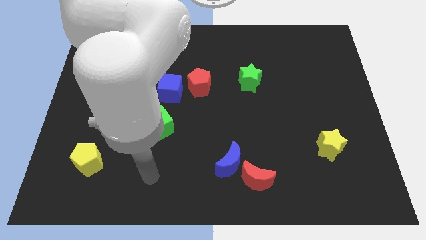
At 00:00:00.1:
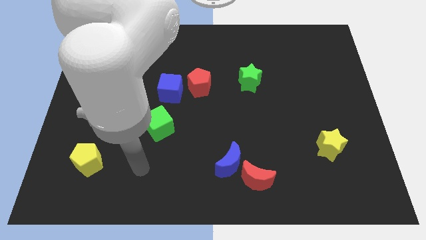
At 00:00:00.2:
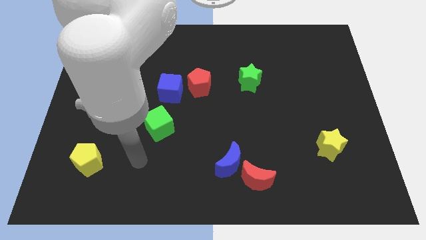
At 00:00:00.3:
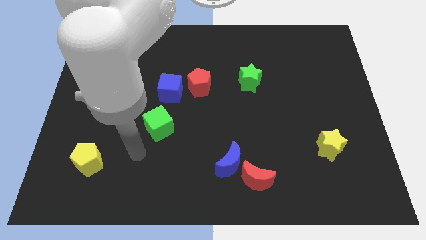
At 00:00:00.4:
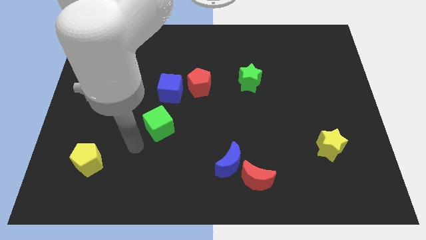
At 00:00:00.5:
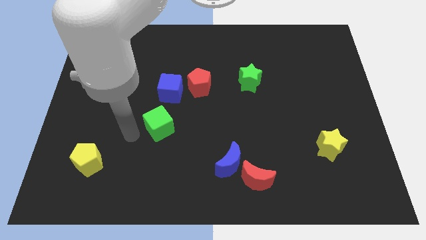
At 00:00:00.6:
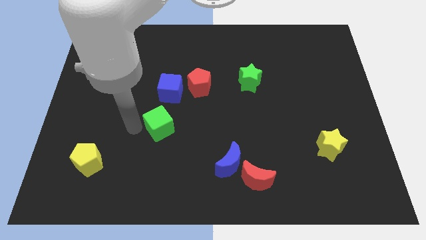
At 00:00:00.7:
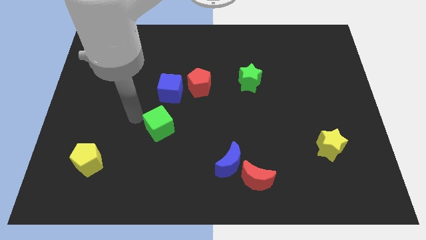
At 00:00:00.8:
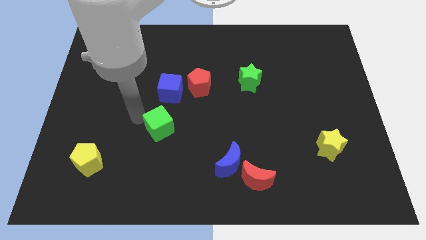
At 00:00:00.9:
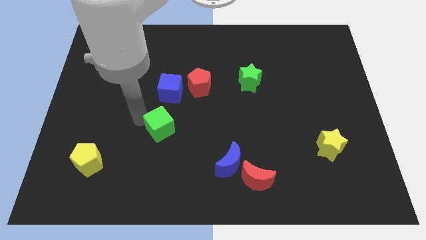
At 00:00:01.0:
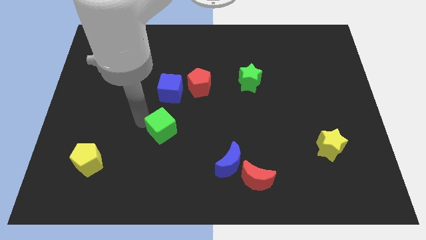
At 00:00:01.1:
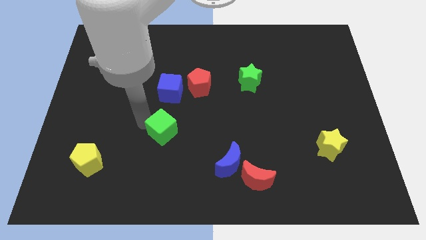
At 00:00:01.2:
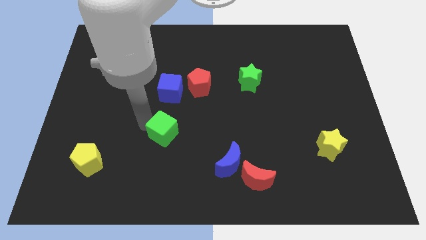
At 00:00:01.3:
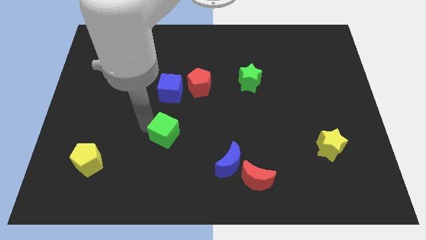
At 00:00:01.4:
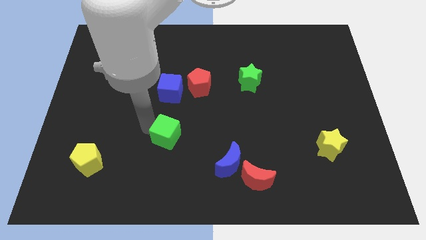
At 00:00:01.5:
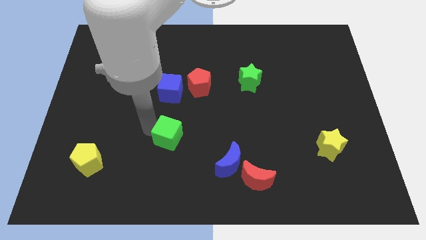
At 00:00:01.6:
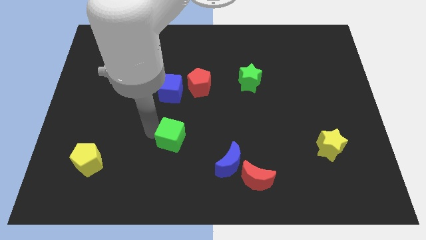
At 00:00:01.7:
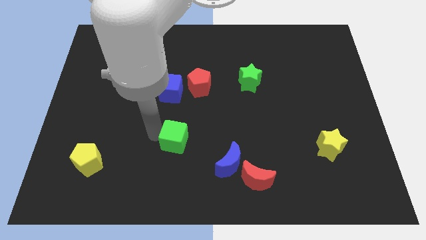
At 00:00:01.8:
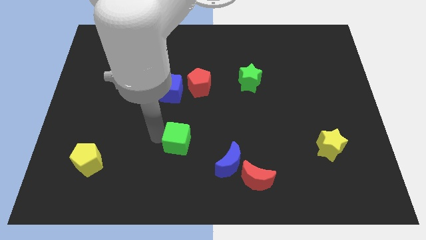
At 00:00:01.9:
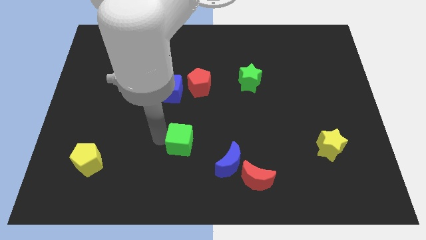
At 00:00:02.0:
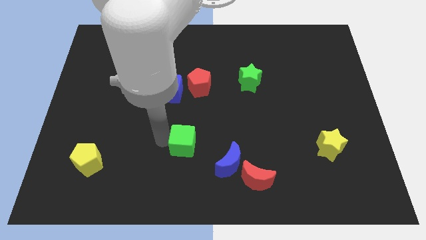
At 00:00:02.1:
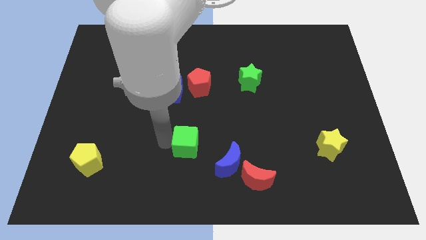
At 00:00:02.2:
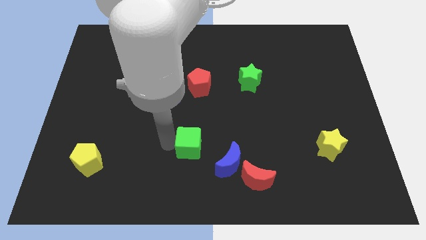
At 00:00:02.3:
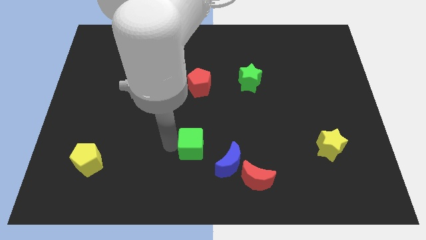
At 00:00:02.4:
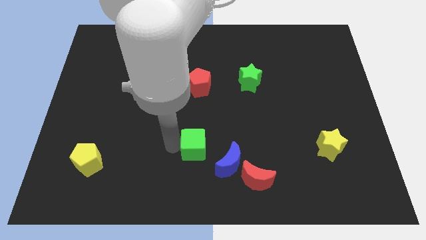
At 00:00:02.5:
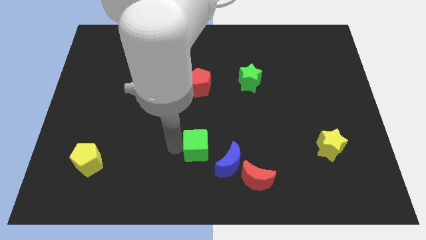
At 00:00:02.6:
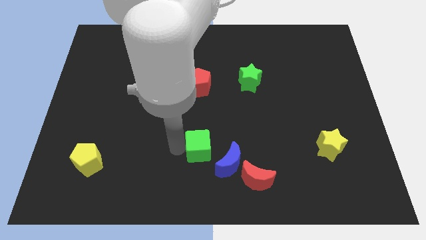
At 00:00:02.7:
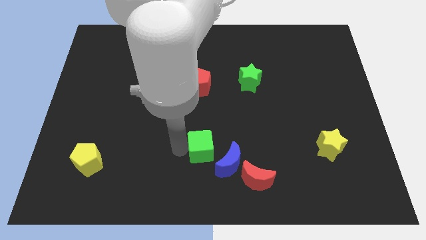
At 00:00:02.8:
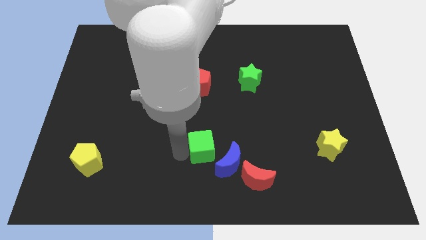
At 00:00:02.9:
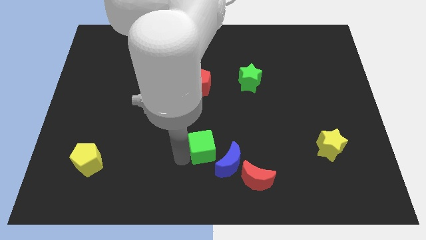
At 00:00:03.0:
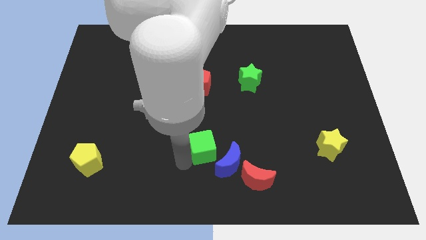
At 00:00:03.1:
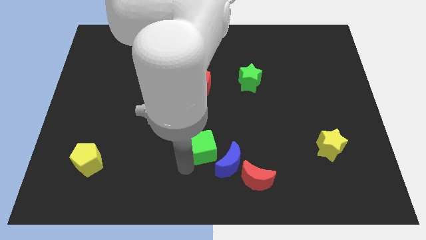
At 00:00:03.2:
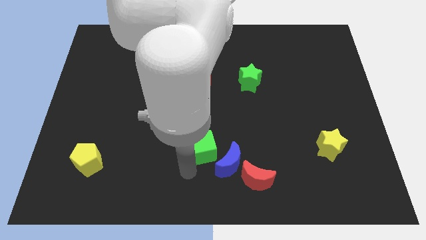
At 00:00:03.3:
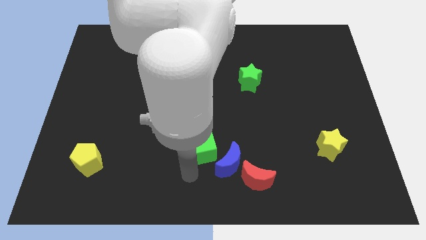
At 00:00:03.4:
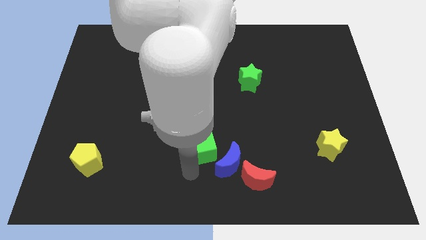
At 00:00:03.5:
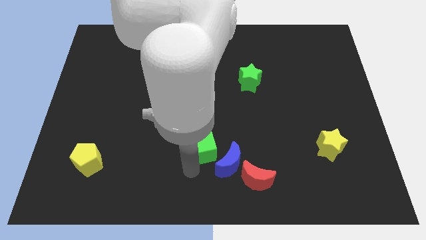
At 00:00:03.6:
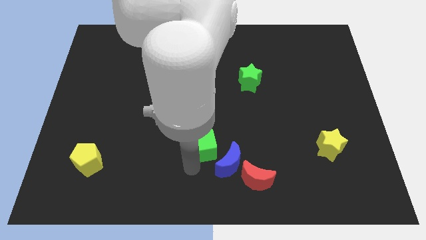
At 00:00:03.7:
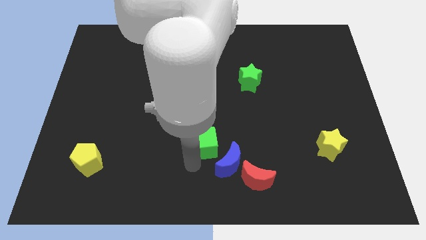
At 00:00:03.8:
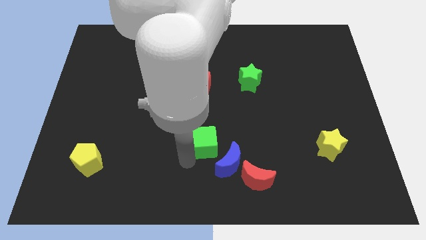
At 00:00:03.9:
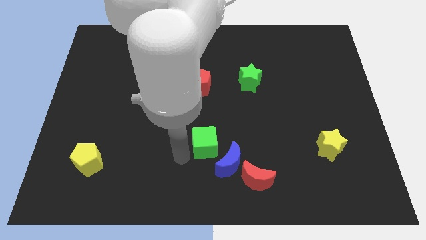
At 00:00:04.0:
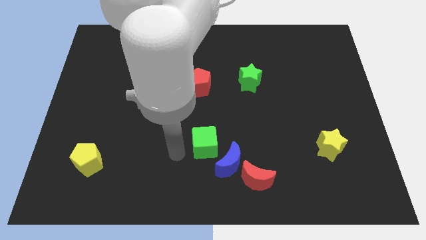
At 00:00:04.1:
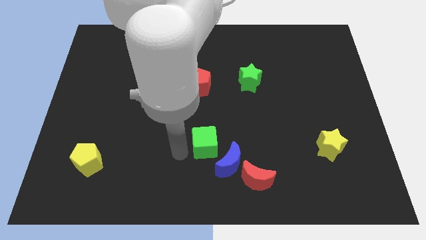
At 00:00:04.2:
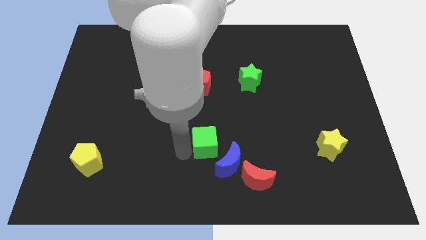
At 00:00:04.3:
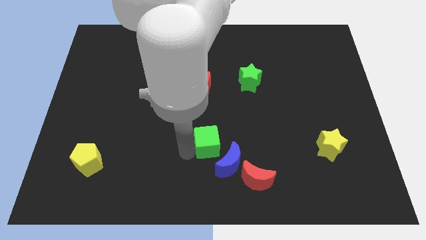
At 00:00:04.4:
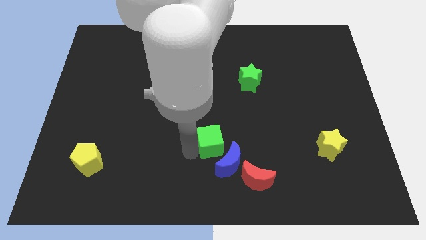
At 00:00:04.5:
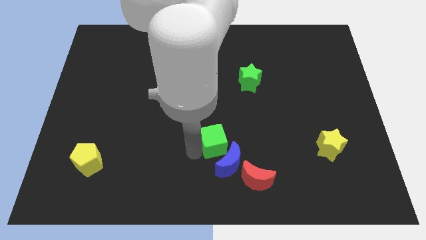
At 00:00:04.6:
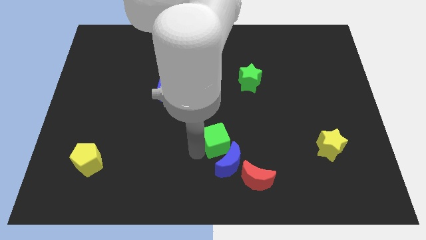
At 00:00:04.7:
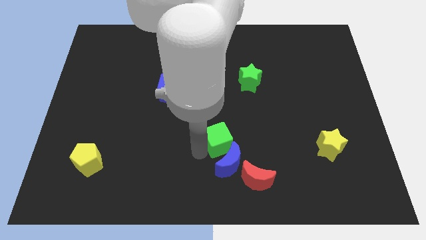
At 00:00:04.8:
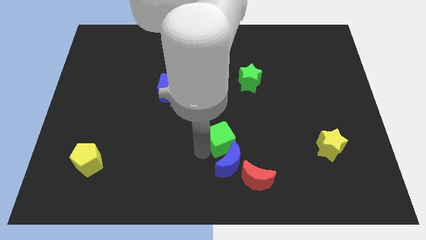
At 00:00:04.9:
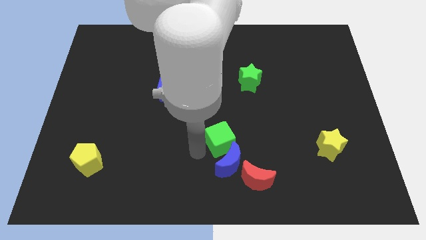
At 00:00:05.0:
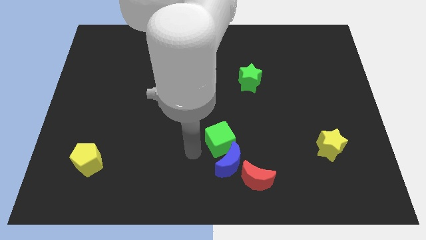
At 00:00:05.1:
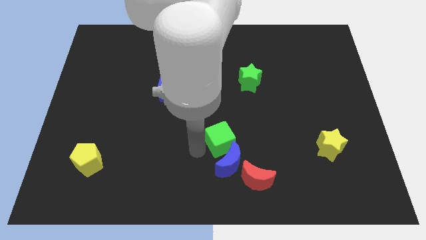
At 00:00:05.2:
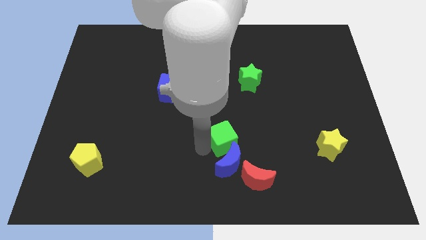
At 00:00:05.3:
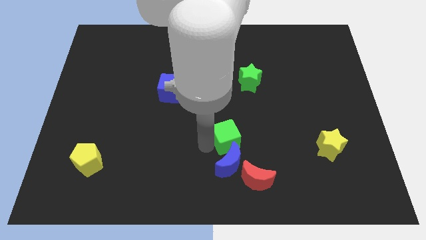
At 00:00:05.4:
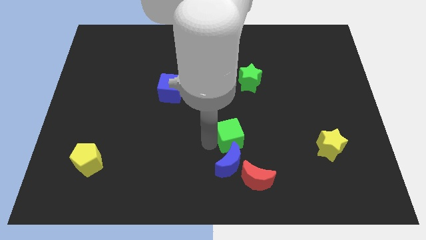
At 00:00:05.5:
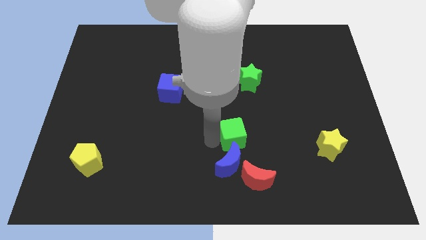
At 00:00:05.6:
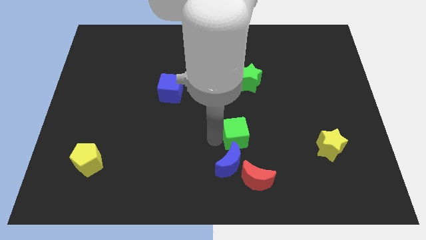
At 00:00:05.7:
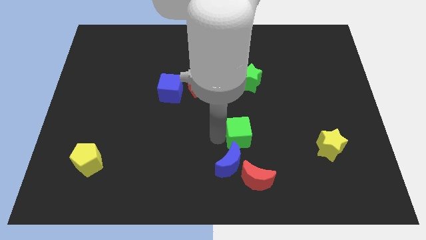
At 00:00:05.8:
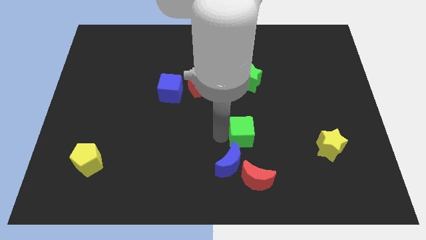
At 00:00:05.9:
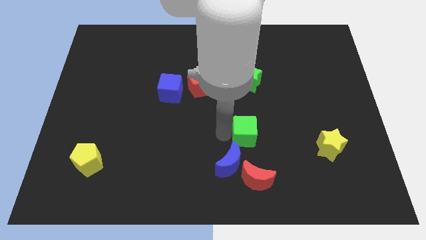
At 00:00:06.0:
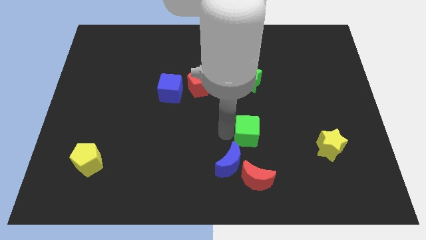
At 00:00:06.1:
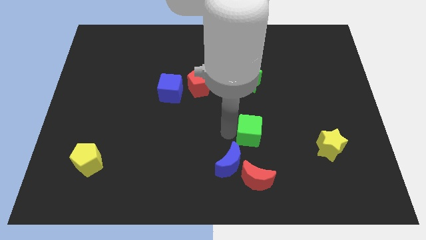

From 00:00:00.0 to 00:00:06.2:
push the green cube to the right

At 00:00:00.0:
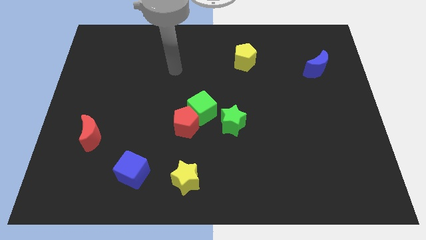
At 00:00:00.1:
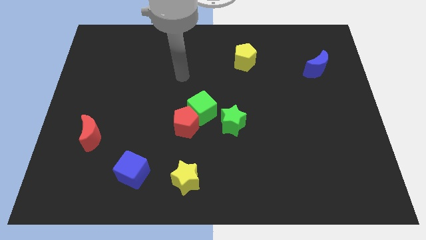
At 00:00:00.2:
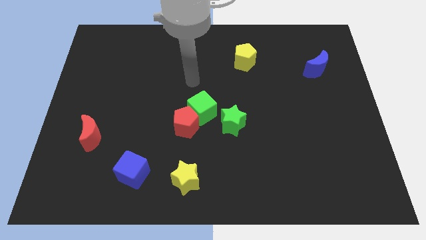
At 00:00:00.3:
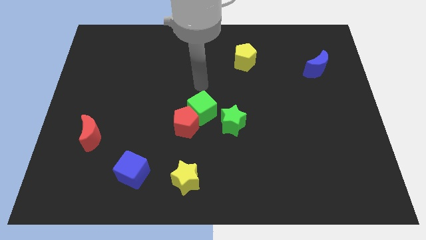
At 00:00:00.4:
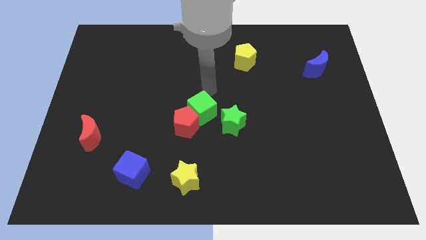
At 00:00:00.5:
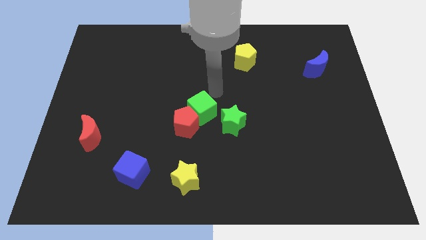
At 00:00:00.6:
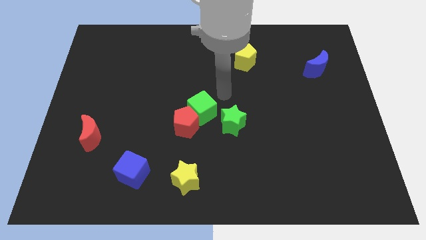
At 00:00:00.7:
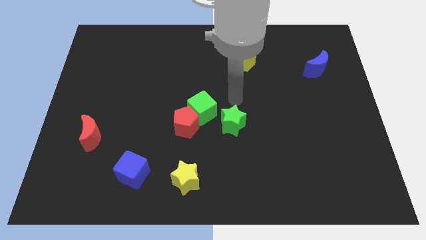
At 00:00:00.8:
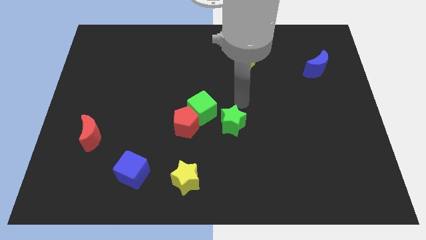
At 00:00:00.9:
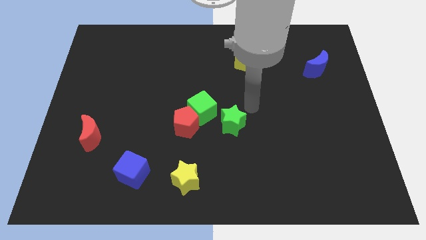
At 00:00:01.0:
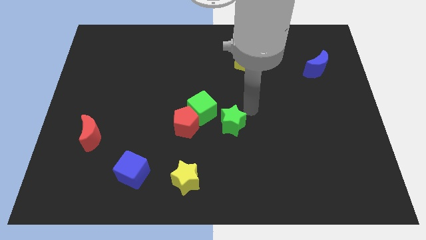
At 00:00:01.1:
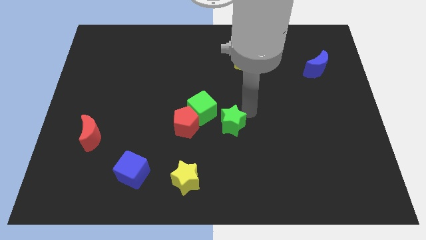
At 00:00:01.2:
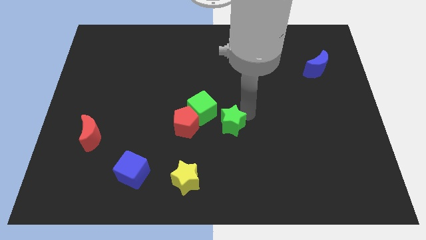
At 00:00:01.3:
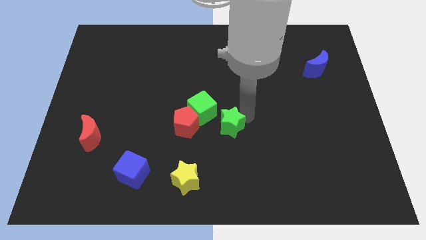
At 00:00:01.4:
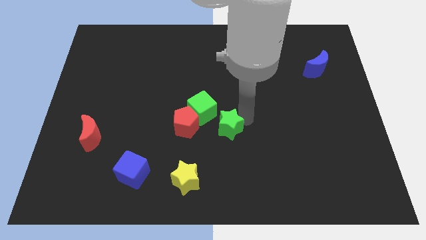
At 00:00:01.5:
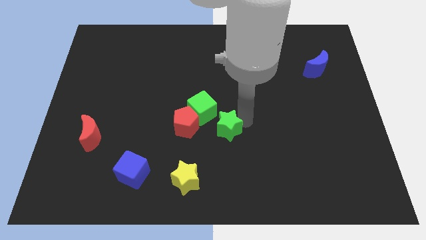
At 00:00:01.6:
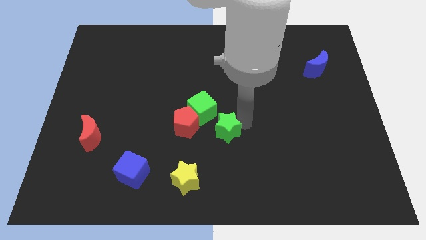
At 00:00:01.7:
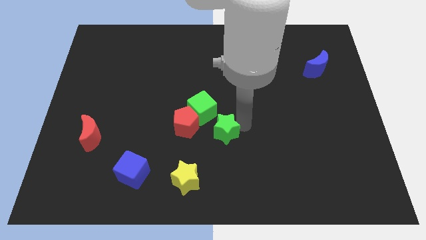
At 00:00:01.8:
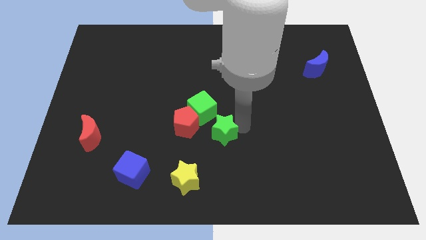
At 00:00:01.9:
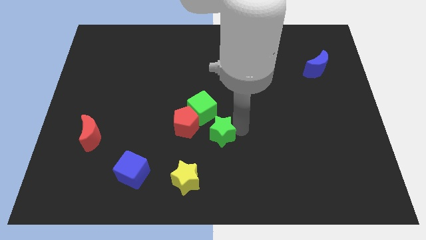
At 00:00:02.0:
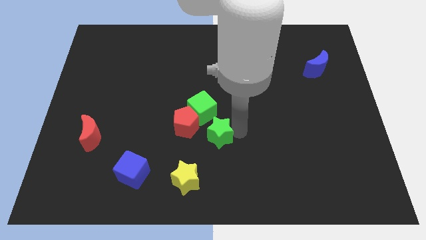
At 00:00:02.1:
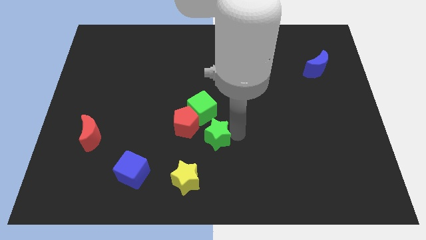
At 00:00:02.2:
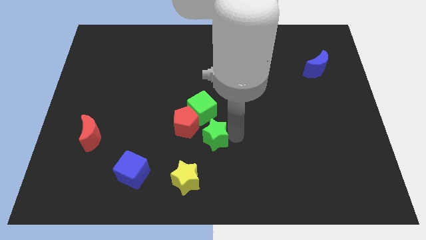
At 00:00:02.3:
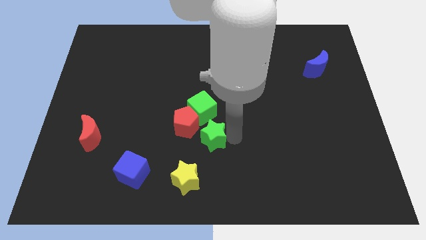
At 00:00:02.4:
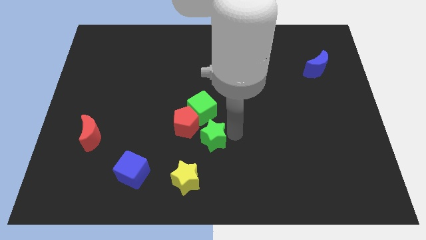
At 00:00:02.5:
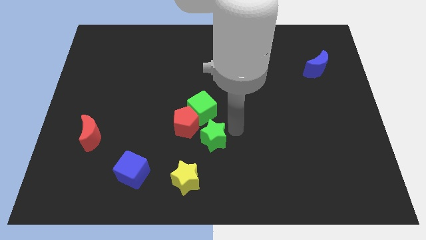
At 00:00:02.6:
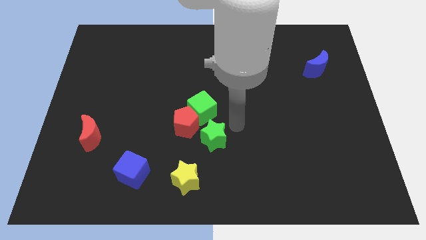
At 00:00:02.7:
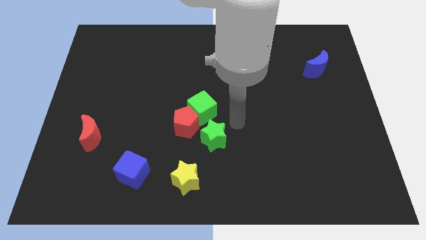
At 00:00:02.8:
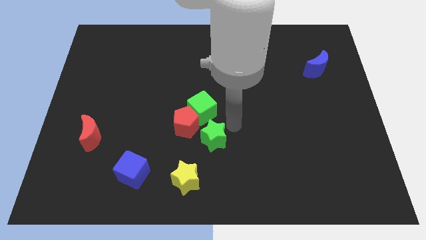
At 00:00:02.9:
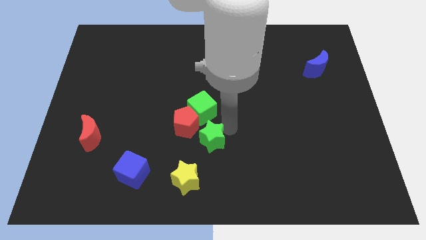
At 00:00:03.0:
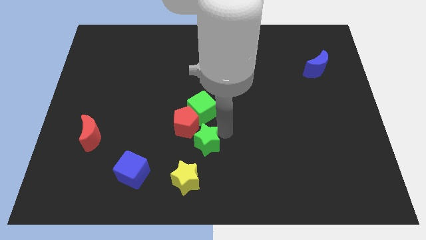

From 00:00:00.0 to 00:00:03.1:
slide the green star a little bit downwards and to the left
